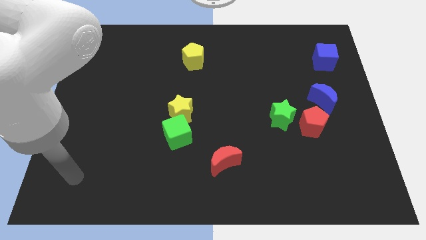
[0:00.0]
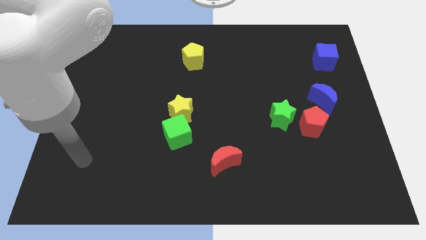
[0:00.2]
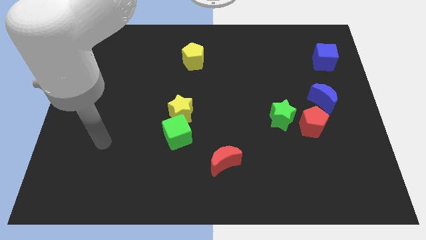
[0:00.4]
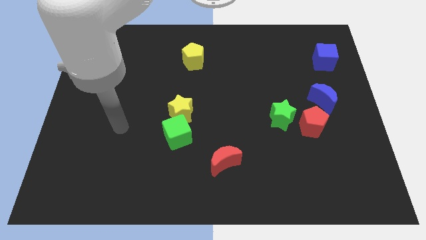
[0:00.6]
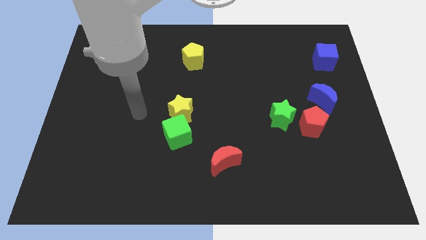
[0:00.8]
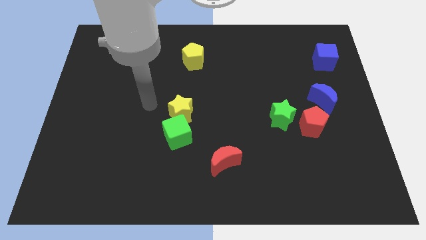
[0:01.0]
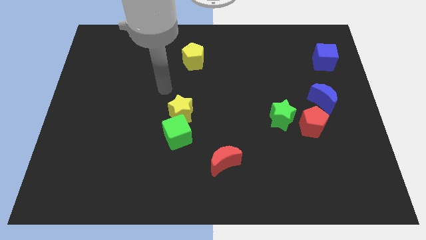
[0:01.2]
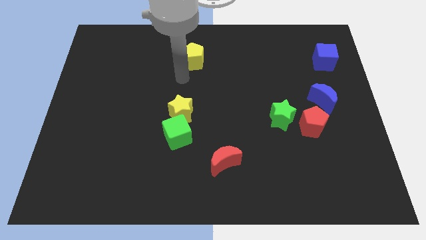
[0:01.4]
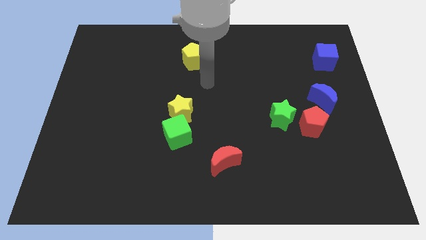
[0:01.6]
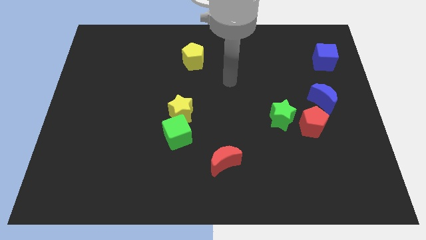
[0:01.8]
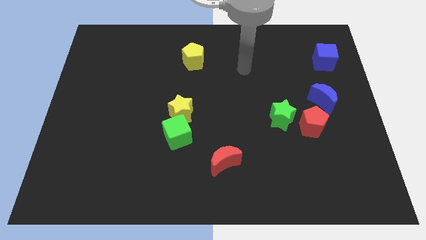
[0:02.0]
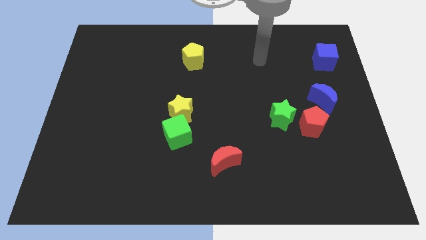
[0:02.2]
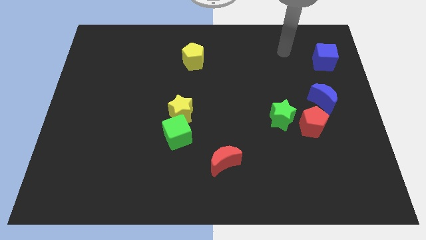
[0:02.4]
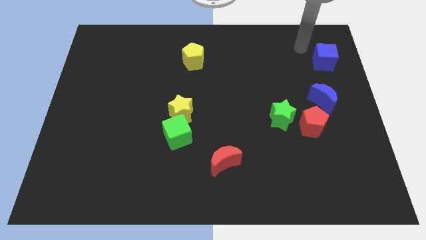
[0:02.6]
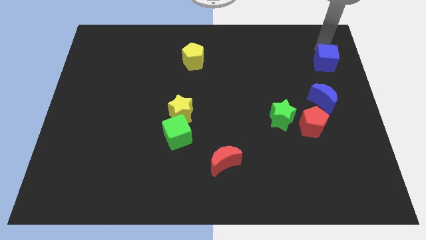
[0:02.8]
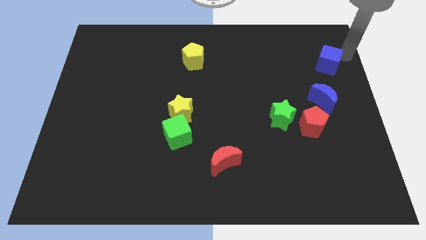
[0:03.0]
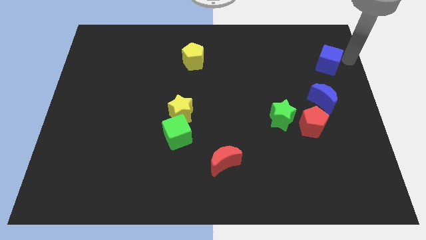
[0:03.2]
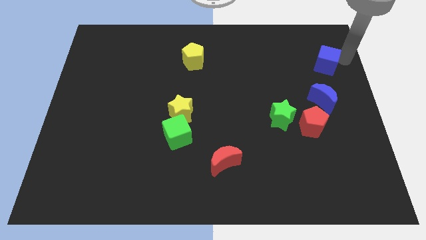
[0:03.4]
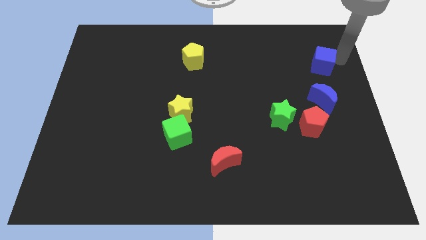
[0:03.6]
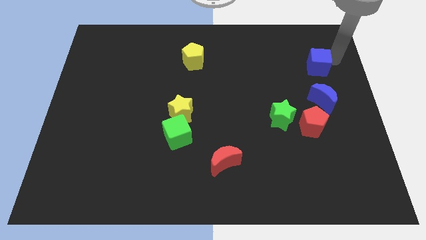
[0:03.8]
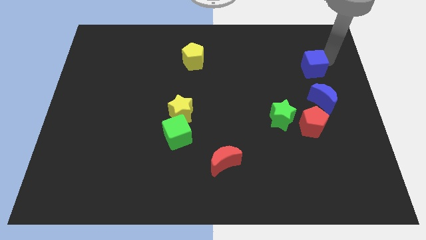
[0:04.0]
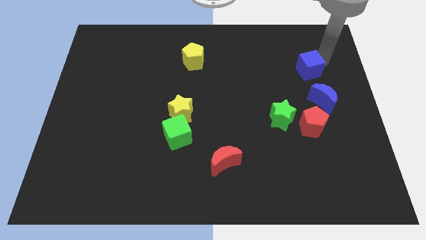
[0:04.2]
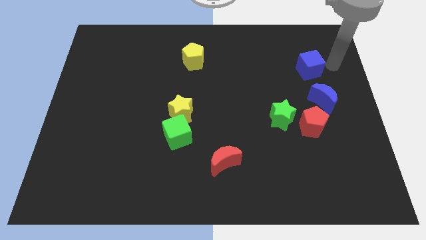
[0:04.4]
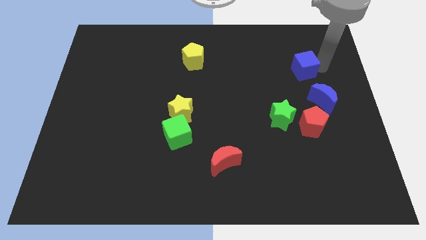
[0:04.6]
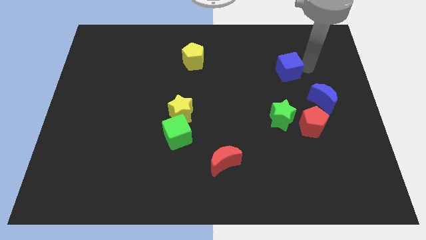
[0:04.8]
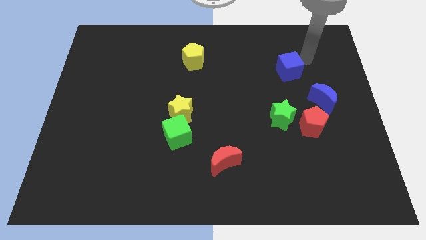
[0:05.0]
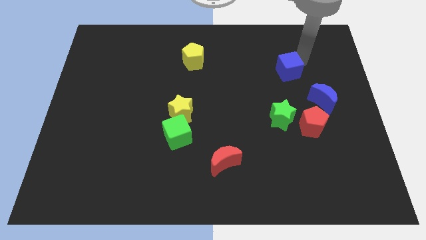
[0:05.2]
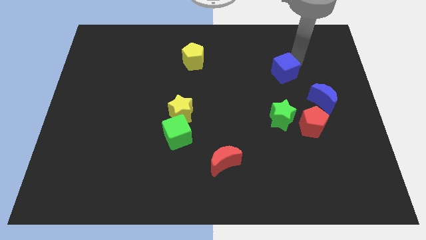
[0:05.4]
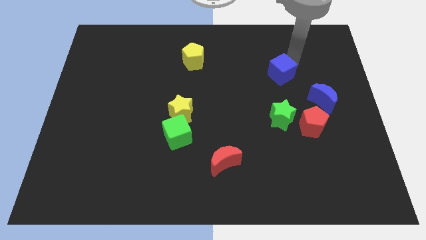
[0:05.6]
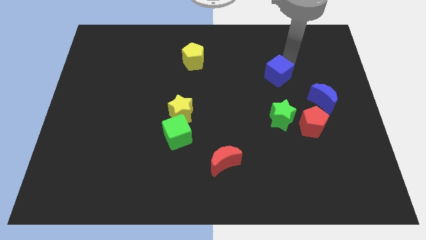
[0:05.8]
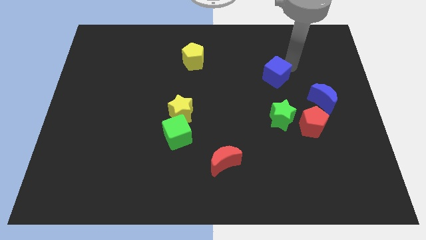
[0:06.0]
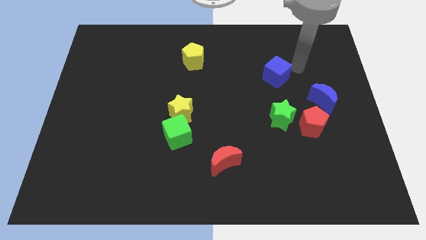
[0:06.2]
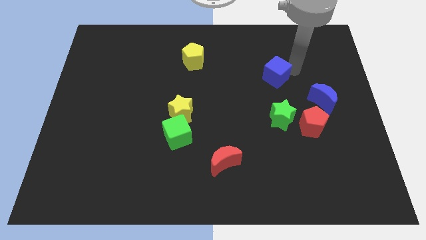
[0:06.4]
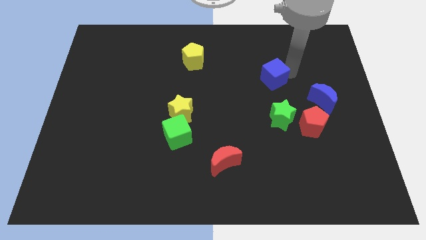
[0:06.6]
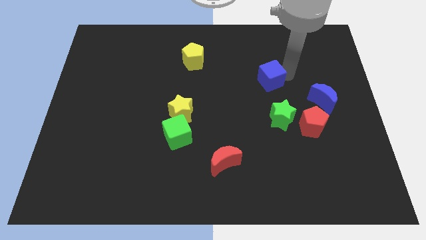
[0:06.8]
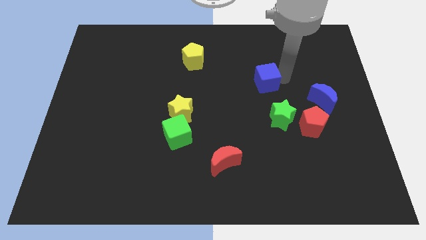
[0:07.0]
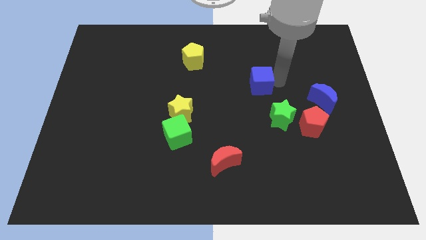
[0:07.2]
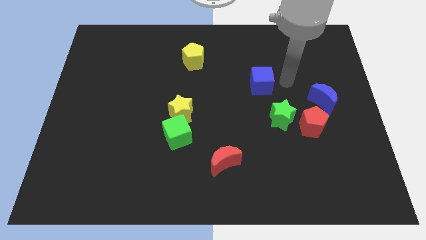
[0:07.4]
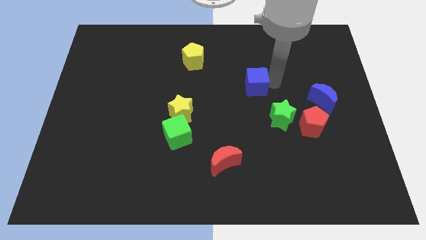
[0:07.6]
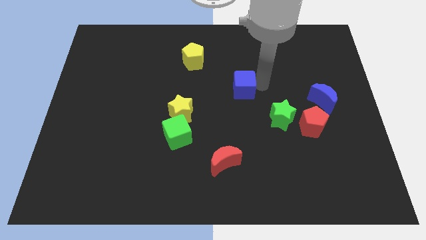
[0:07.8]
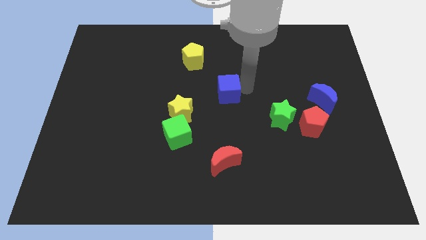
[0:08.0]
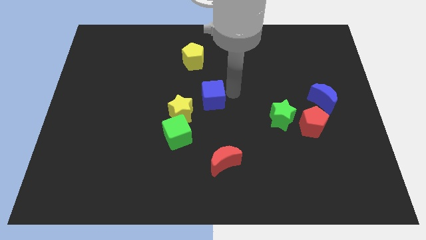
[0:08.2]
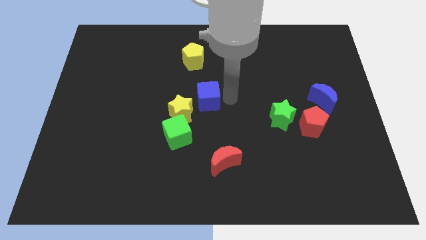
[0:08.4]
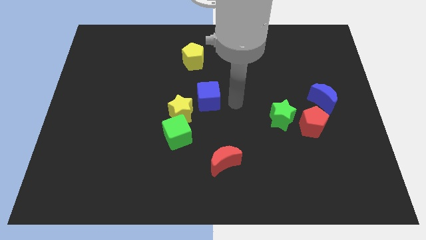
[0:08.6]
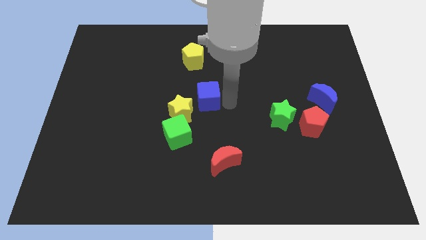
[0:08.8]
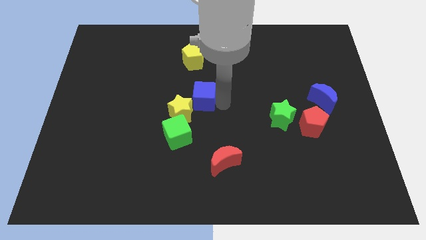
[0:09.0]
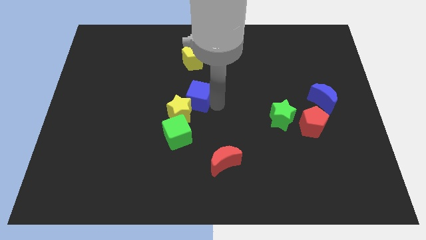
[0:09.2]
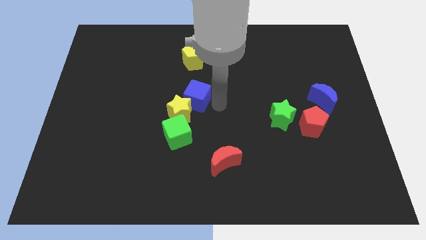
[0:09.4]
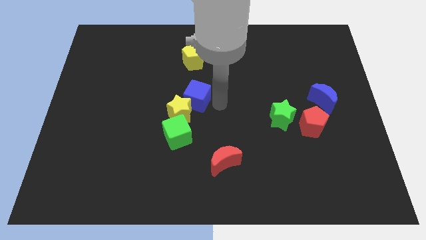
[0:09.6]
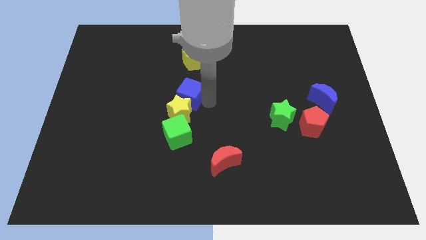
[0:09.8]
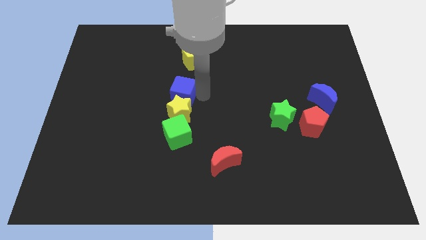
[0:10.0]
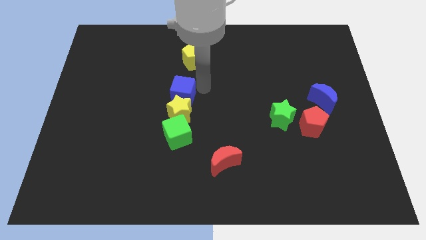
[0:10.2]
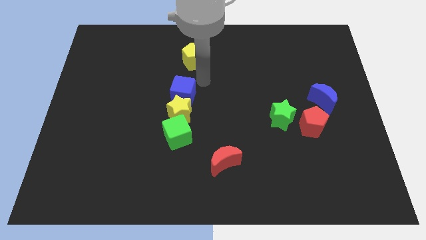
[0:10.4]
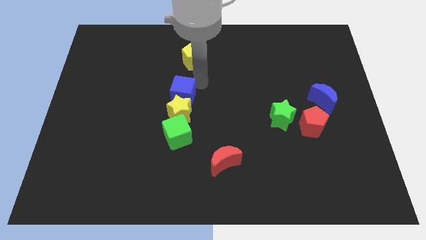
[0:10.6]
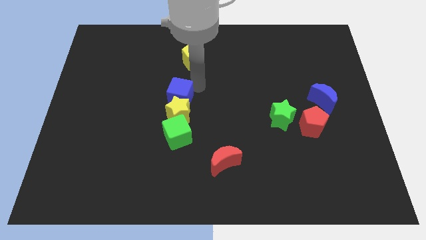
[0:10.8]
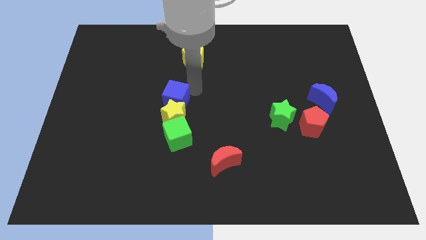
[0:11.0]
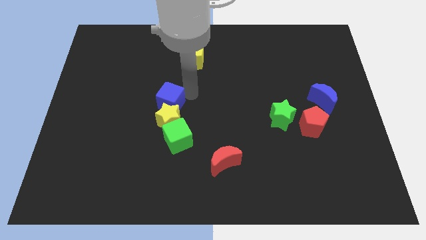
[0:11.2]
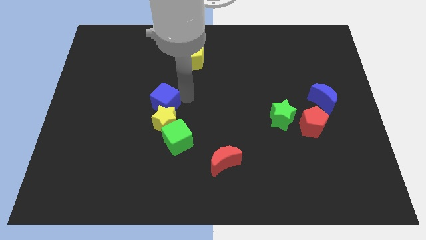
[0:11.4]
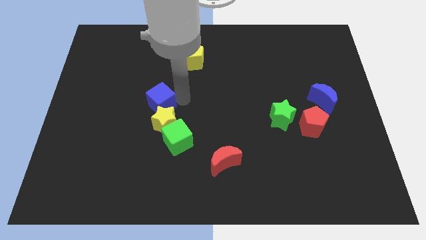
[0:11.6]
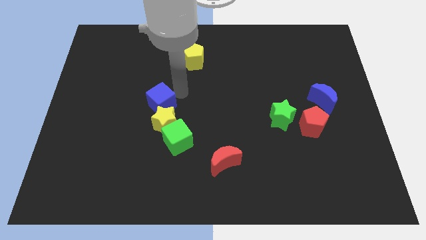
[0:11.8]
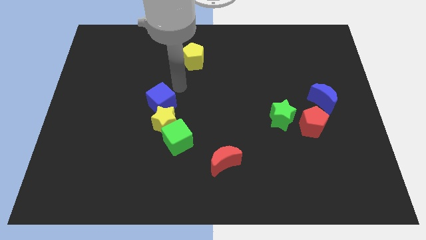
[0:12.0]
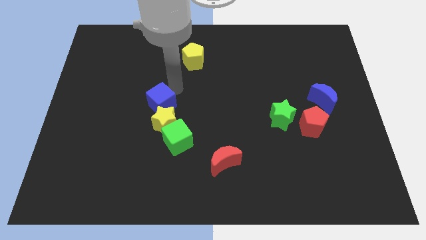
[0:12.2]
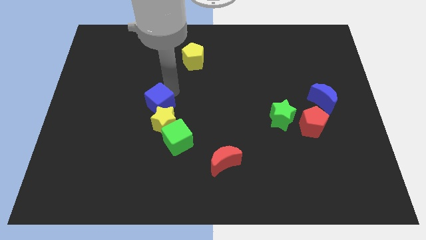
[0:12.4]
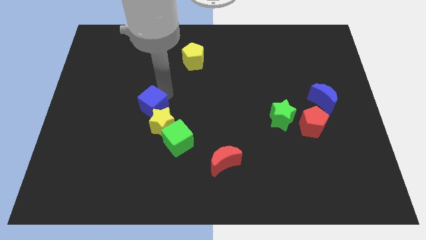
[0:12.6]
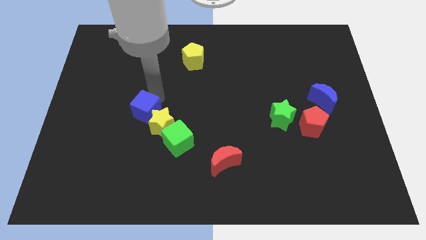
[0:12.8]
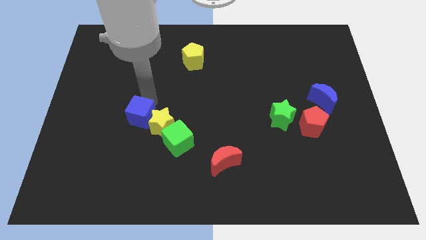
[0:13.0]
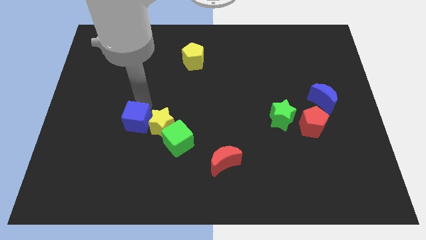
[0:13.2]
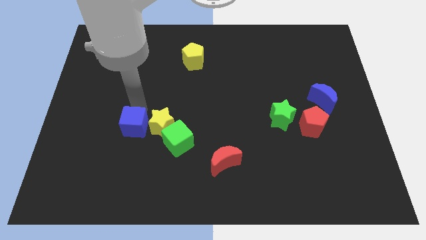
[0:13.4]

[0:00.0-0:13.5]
slide the blue cube diagonally down and to the left of the yellow star
